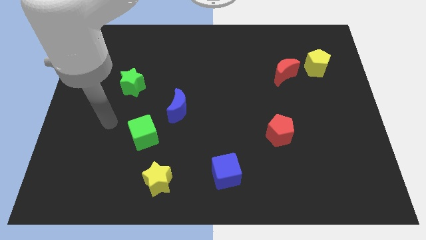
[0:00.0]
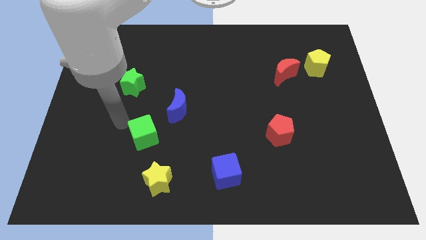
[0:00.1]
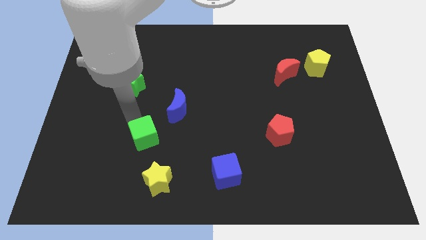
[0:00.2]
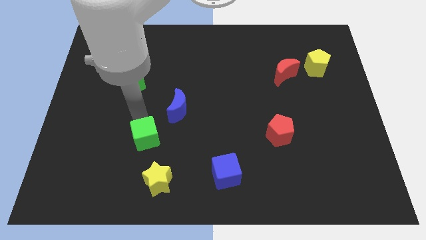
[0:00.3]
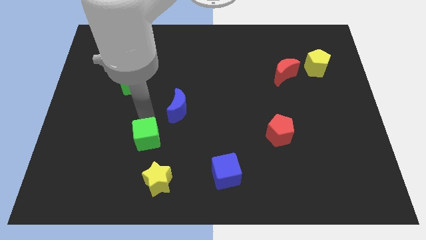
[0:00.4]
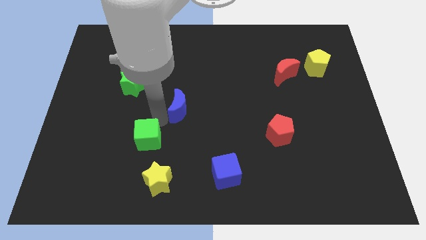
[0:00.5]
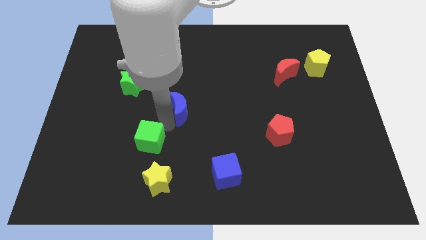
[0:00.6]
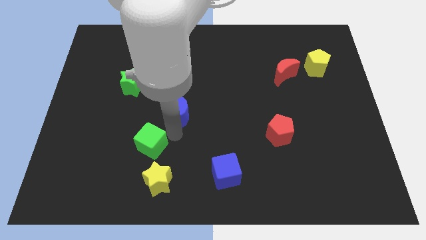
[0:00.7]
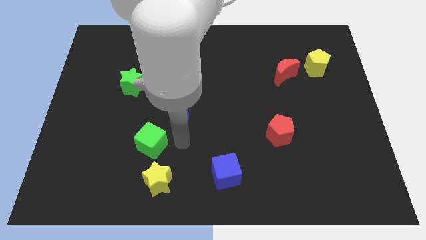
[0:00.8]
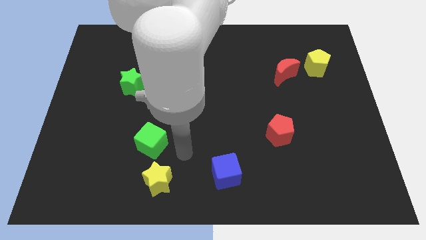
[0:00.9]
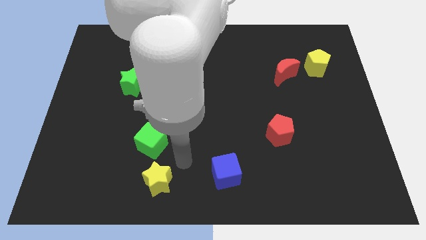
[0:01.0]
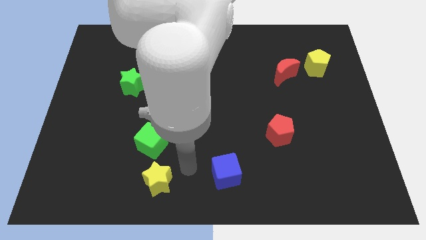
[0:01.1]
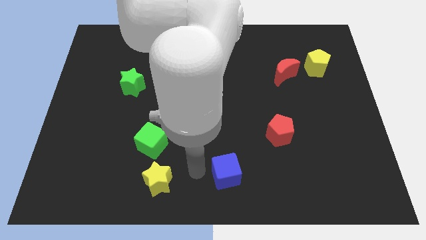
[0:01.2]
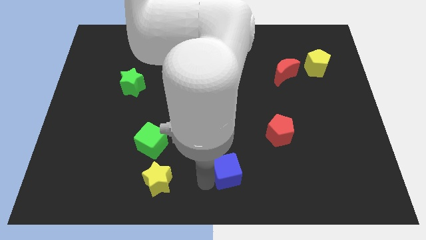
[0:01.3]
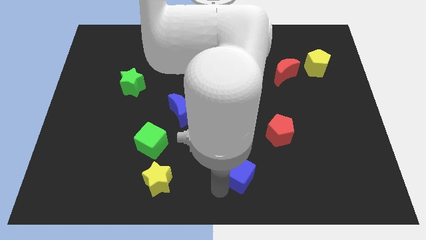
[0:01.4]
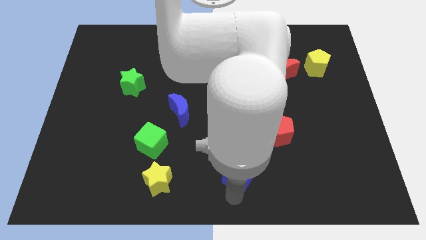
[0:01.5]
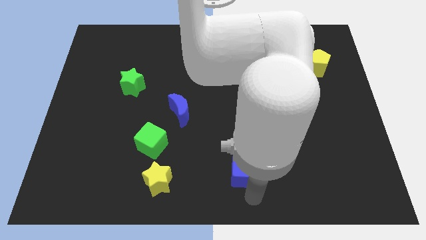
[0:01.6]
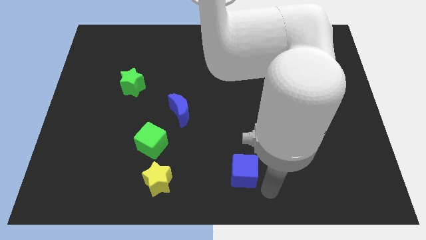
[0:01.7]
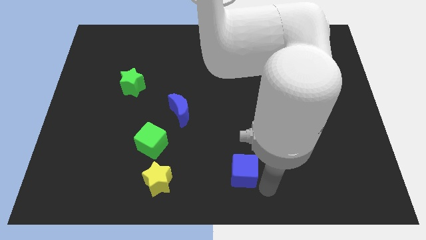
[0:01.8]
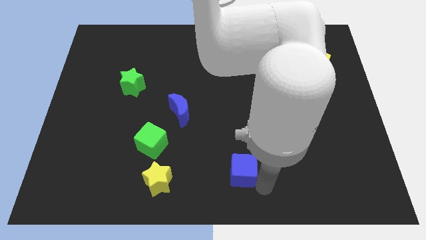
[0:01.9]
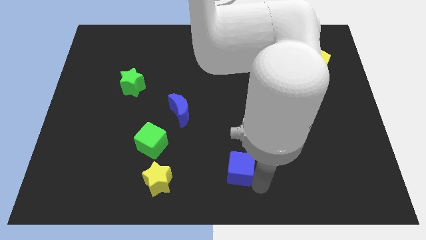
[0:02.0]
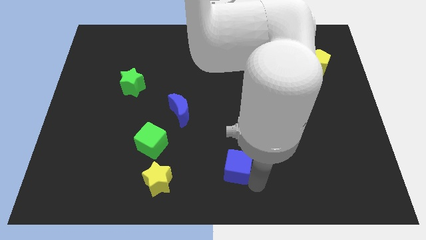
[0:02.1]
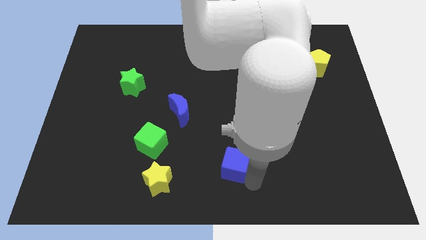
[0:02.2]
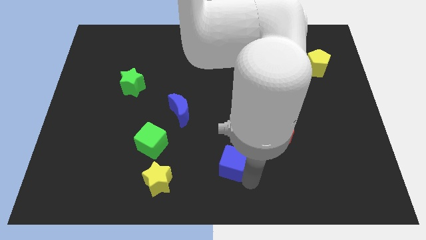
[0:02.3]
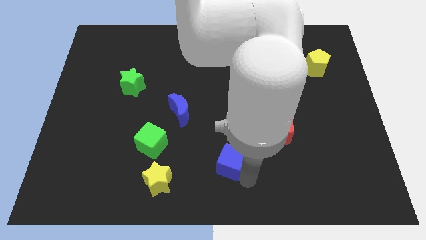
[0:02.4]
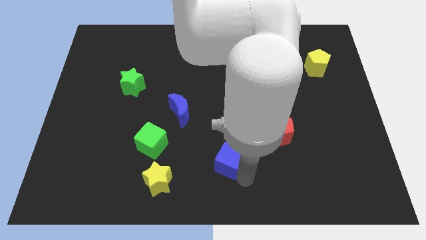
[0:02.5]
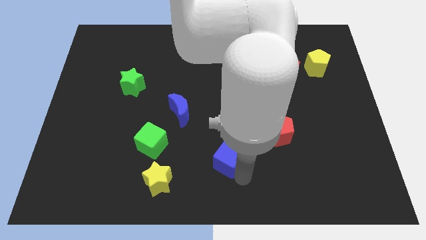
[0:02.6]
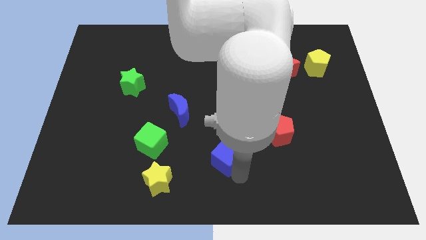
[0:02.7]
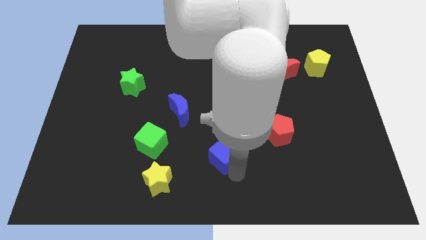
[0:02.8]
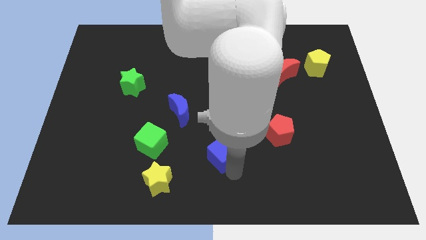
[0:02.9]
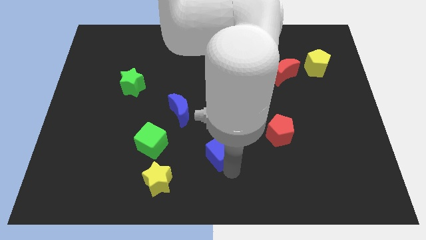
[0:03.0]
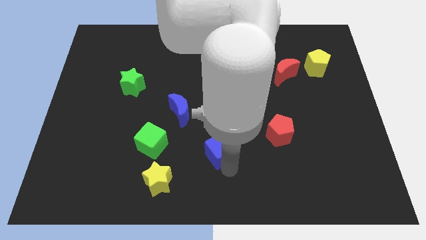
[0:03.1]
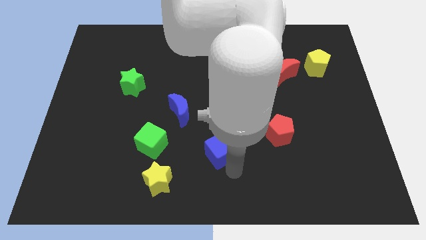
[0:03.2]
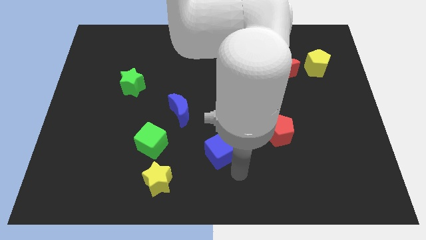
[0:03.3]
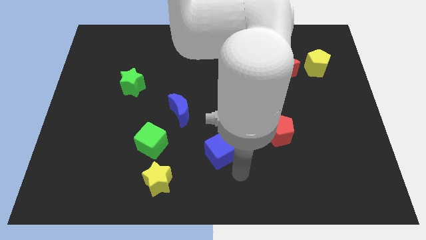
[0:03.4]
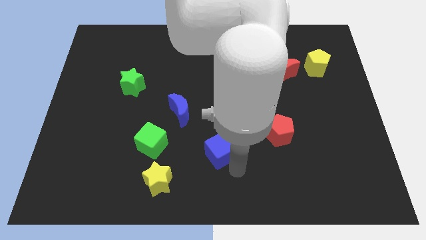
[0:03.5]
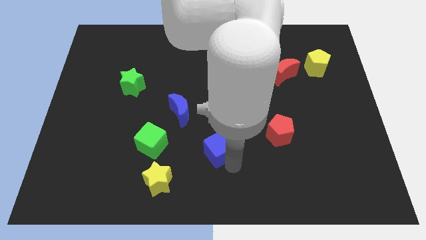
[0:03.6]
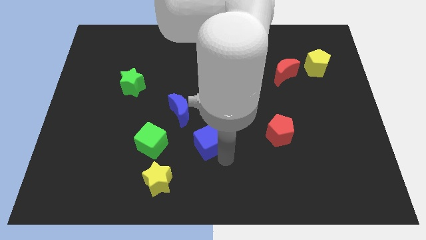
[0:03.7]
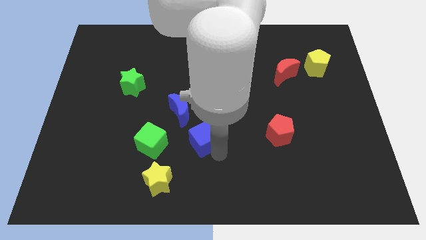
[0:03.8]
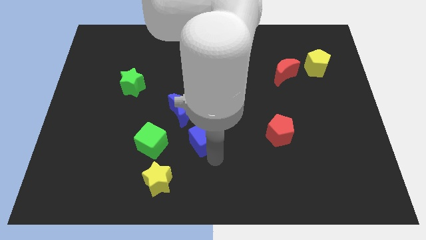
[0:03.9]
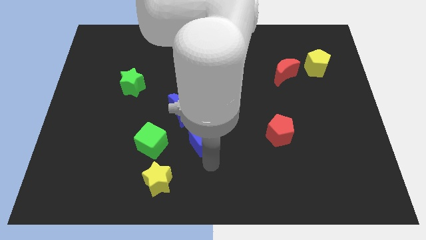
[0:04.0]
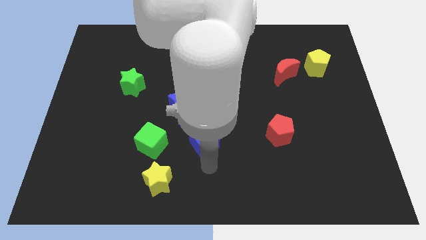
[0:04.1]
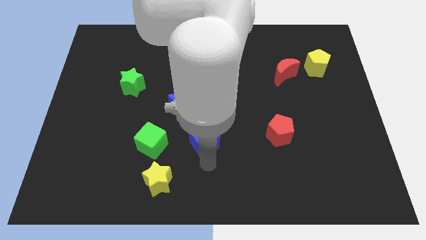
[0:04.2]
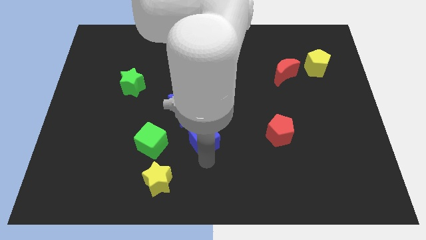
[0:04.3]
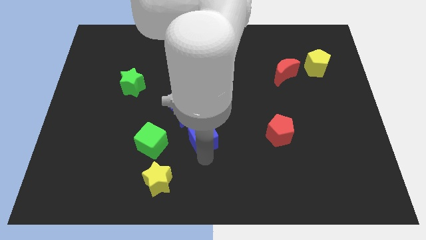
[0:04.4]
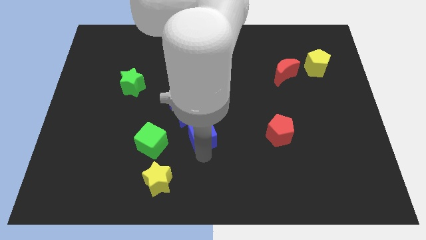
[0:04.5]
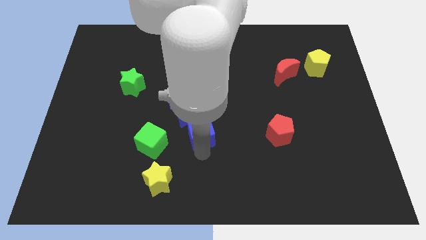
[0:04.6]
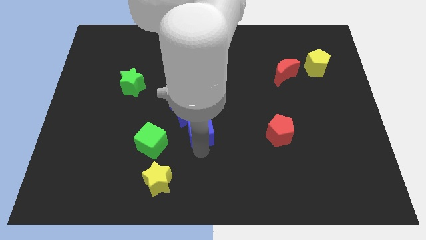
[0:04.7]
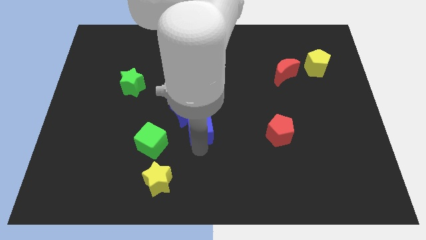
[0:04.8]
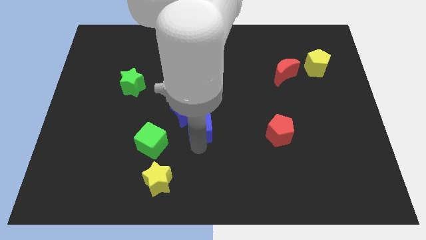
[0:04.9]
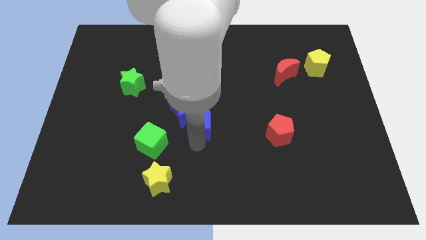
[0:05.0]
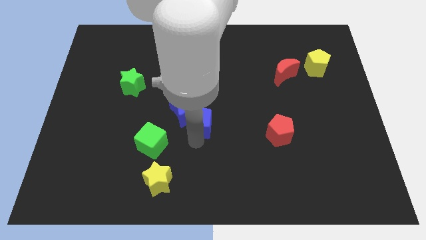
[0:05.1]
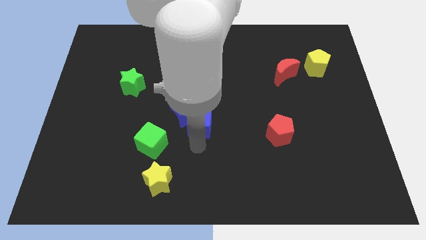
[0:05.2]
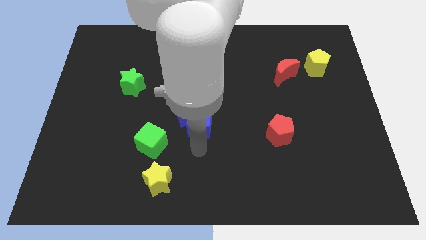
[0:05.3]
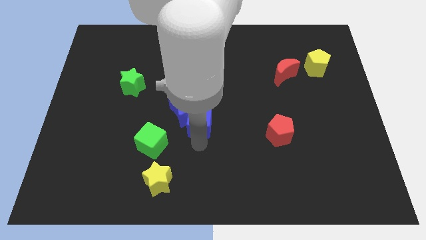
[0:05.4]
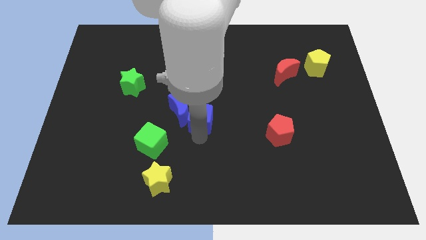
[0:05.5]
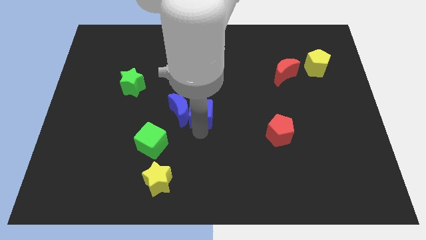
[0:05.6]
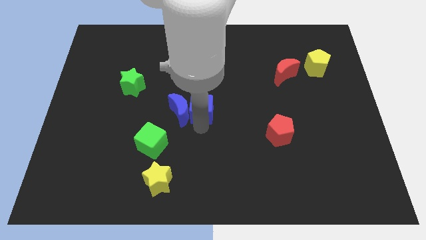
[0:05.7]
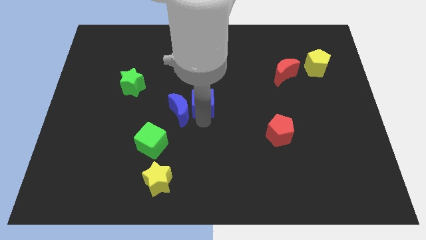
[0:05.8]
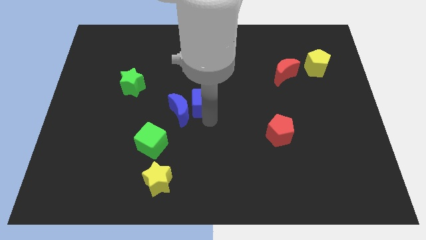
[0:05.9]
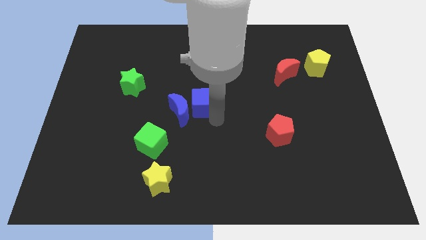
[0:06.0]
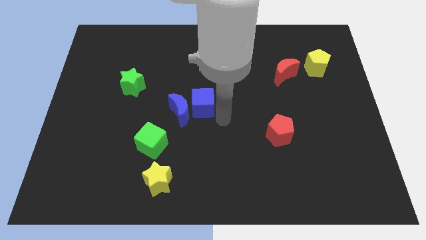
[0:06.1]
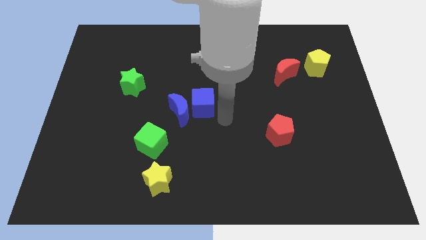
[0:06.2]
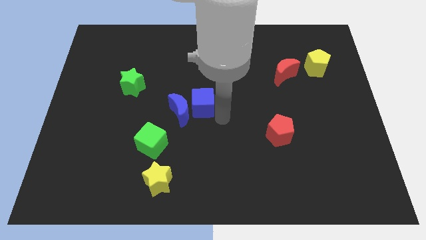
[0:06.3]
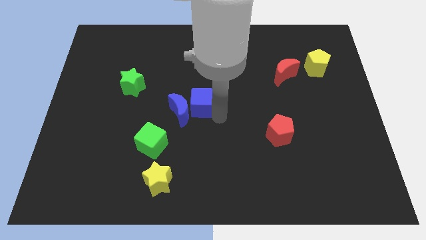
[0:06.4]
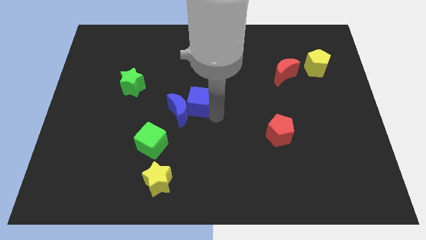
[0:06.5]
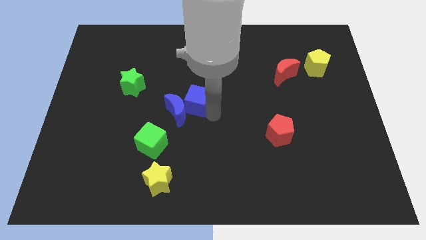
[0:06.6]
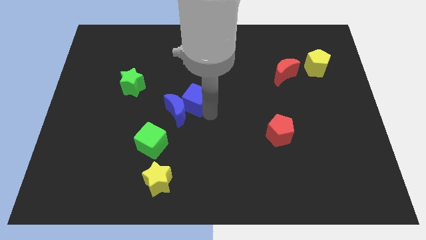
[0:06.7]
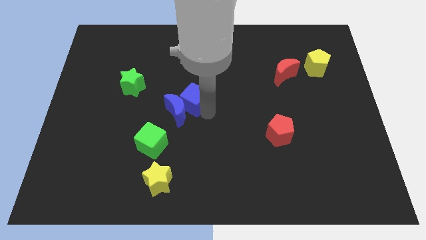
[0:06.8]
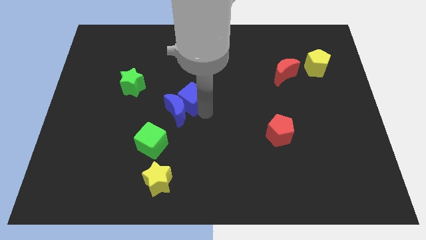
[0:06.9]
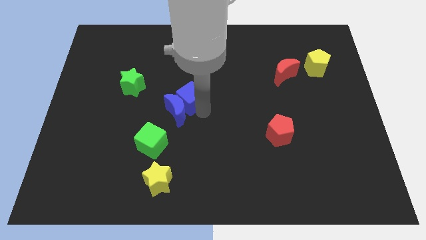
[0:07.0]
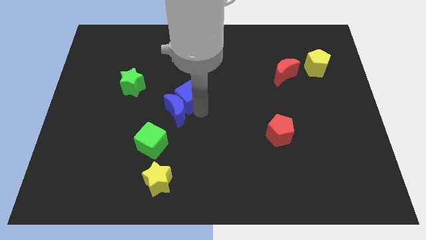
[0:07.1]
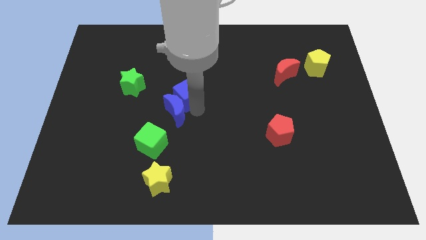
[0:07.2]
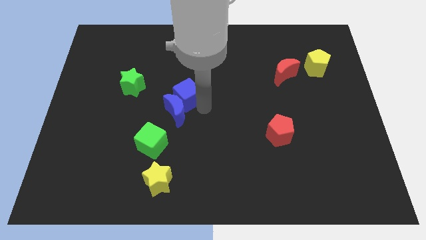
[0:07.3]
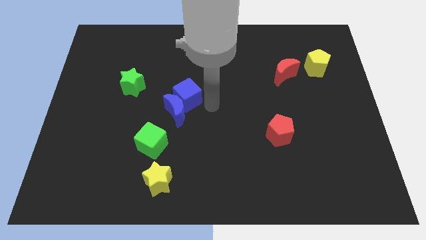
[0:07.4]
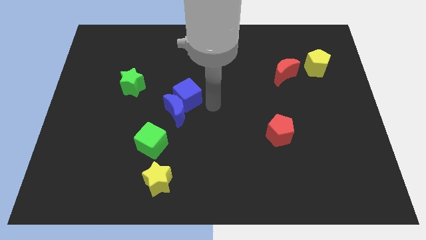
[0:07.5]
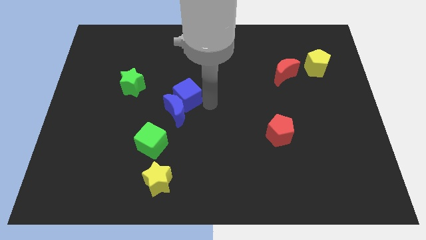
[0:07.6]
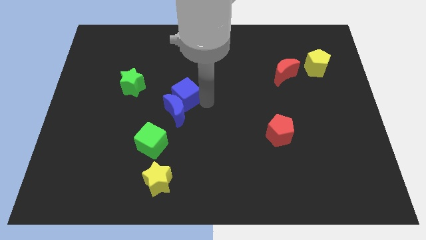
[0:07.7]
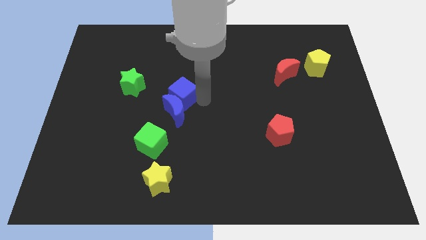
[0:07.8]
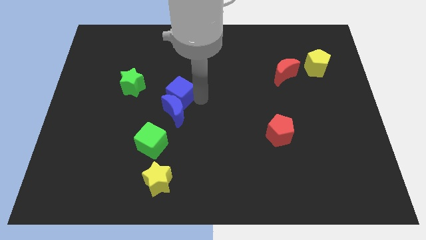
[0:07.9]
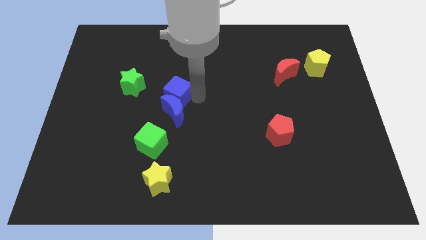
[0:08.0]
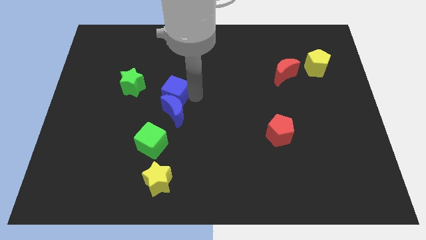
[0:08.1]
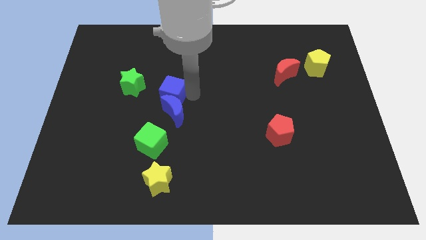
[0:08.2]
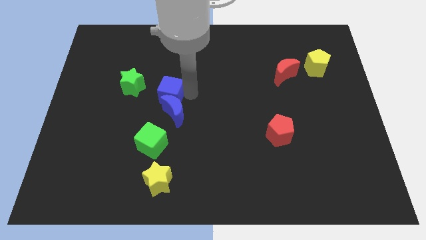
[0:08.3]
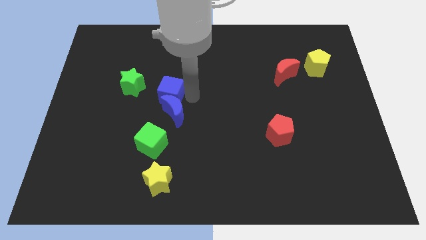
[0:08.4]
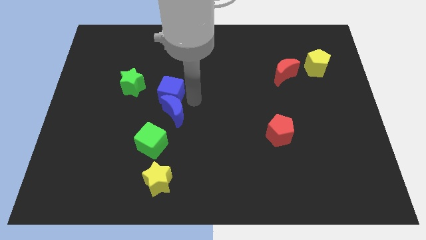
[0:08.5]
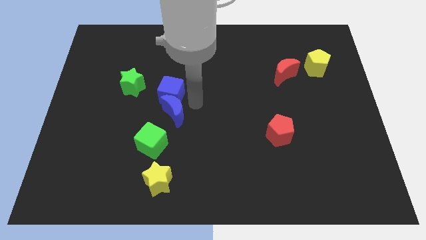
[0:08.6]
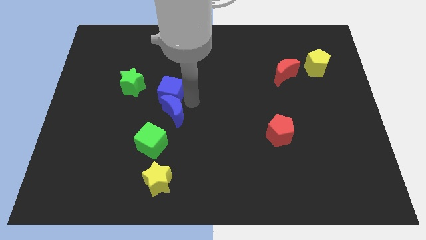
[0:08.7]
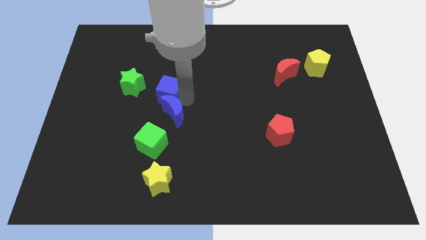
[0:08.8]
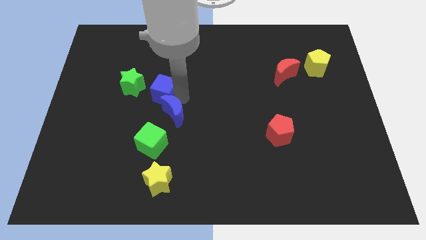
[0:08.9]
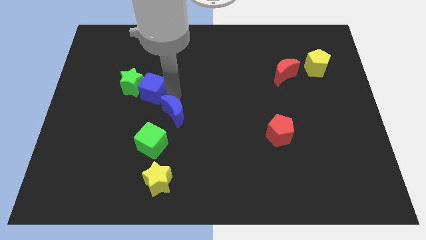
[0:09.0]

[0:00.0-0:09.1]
move the blue cube towards the green star
